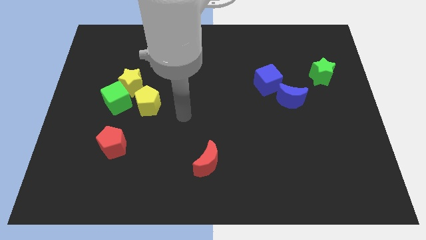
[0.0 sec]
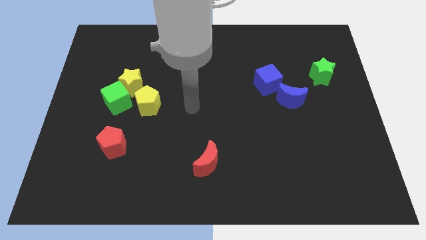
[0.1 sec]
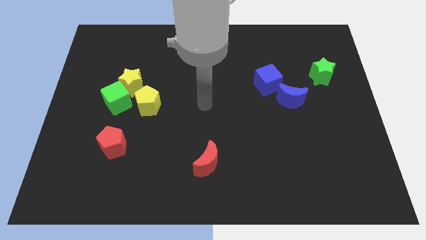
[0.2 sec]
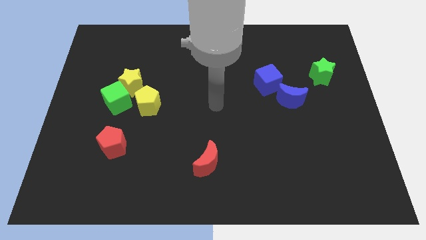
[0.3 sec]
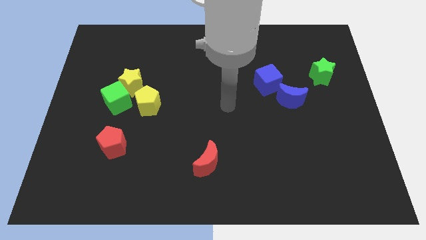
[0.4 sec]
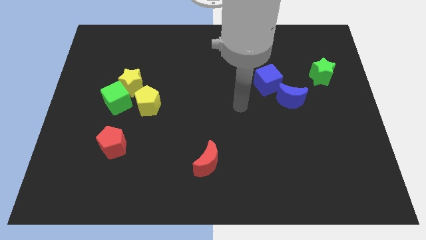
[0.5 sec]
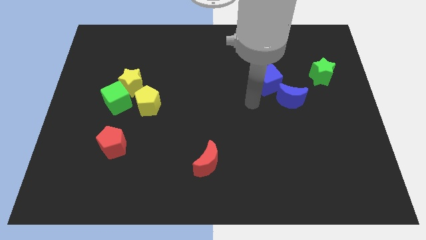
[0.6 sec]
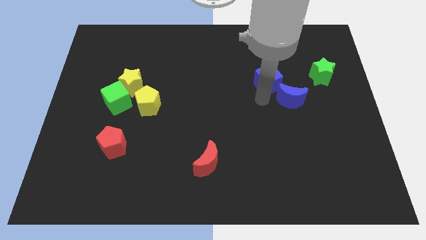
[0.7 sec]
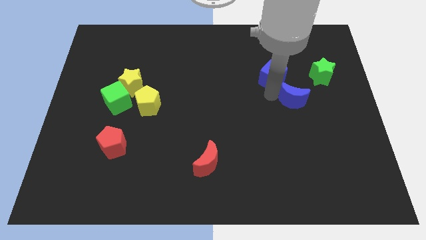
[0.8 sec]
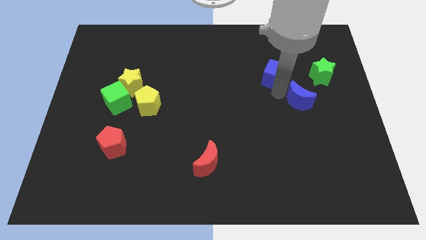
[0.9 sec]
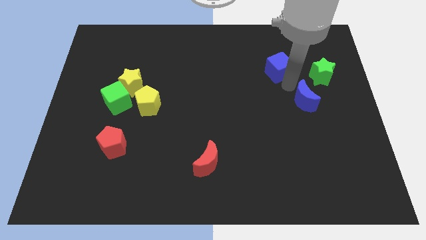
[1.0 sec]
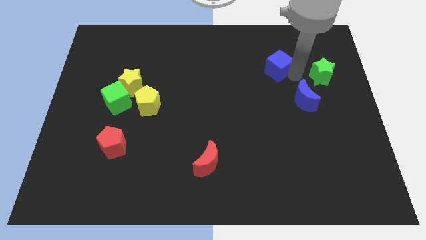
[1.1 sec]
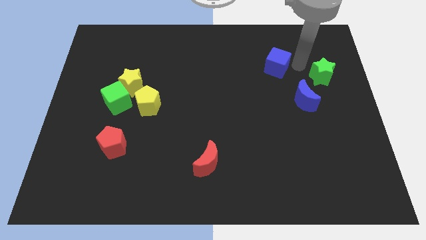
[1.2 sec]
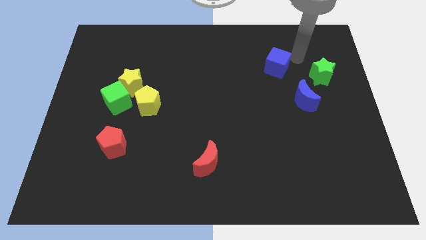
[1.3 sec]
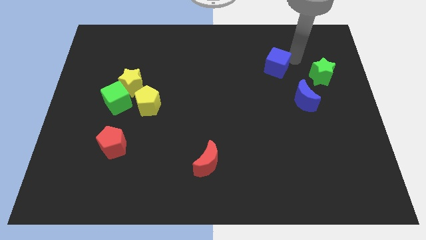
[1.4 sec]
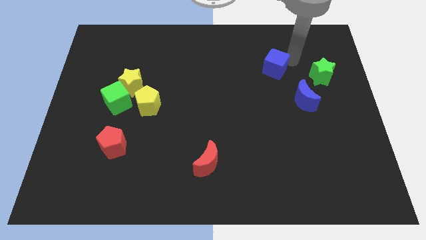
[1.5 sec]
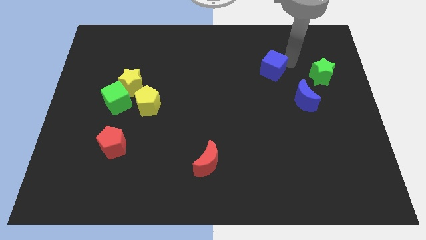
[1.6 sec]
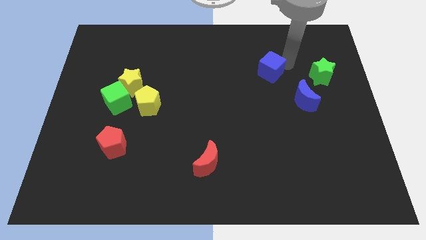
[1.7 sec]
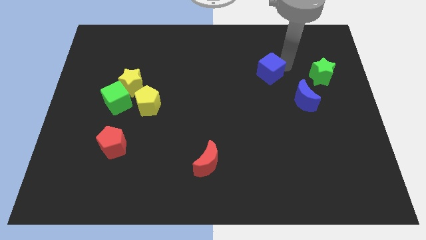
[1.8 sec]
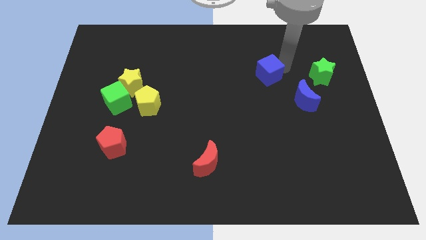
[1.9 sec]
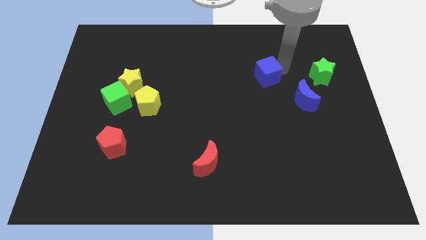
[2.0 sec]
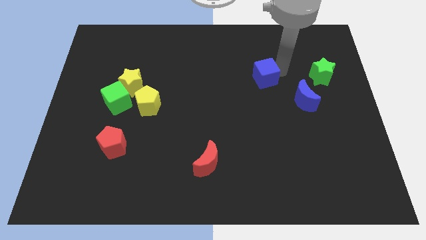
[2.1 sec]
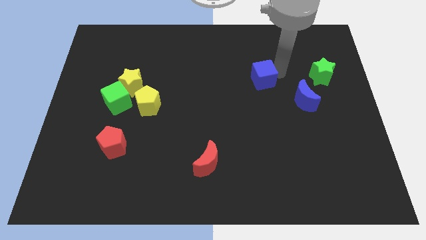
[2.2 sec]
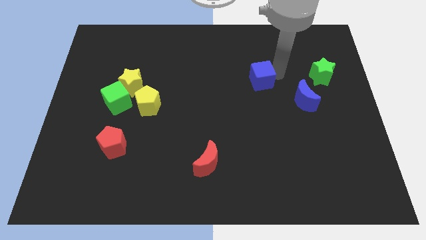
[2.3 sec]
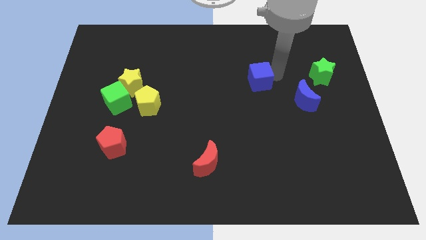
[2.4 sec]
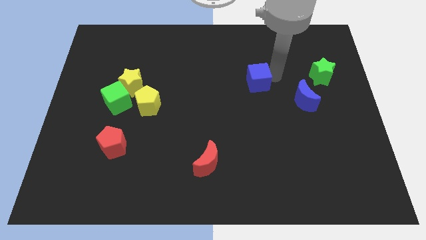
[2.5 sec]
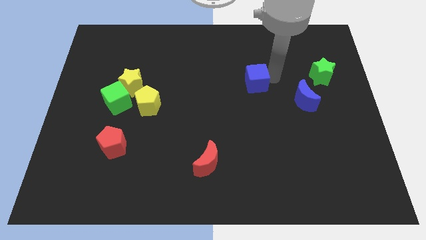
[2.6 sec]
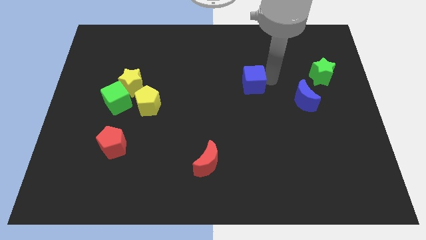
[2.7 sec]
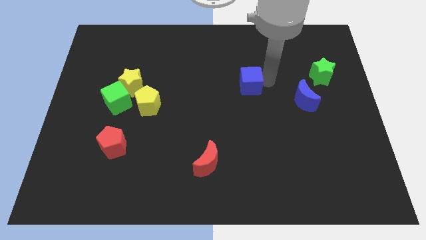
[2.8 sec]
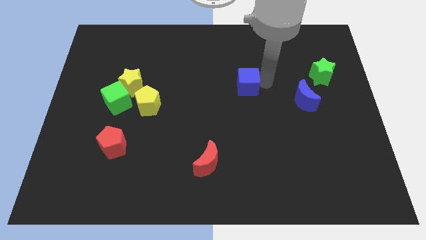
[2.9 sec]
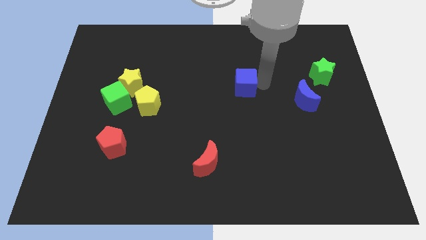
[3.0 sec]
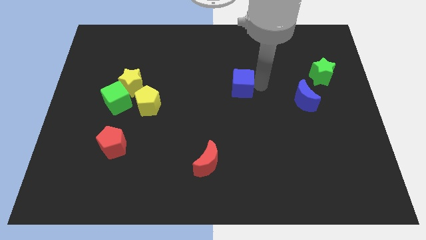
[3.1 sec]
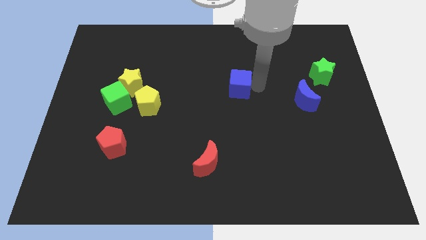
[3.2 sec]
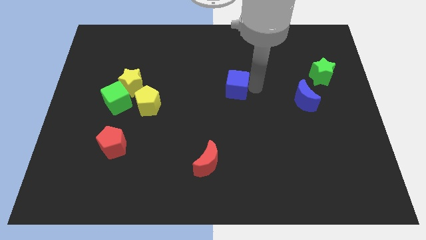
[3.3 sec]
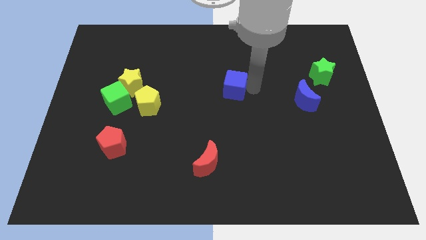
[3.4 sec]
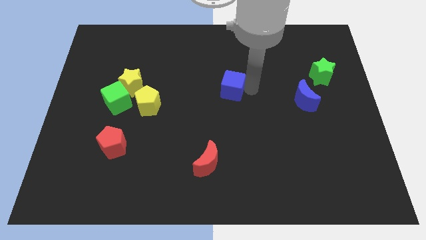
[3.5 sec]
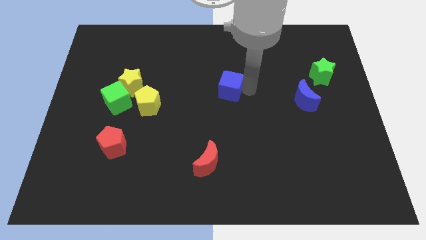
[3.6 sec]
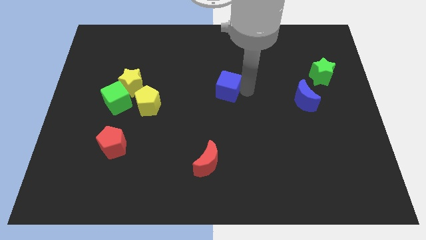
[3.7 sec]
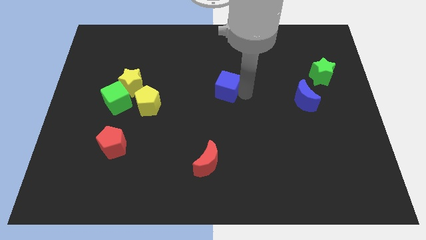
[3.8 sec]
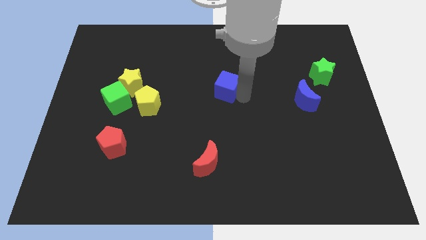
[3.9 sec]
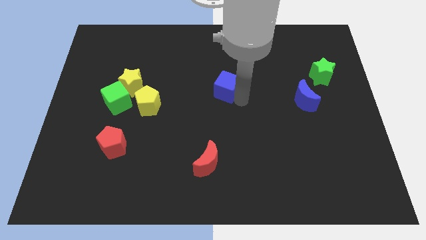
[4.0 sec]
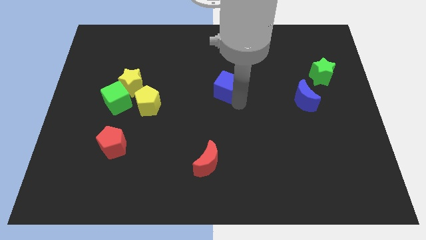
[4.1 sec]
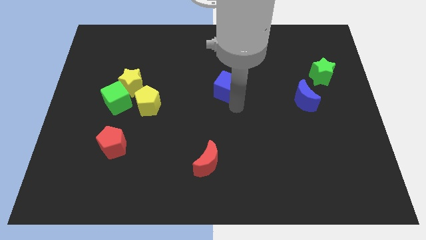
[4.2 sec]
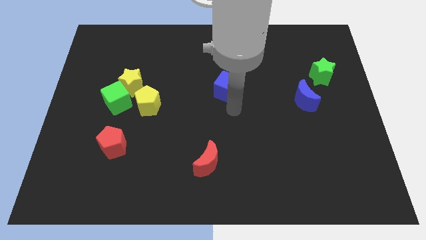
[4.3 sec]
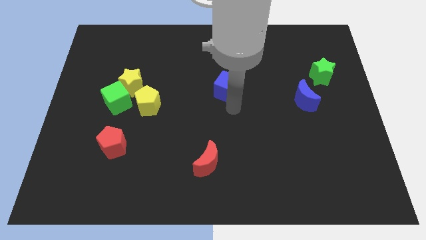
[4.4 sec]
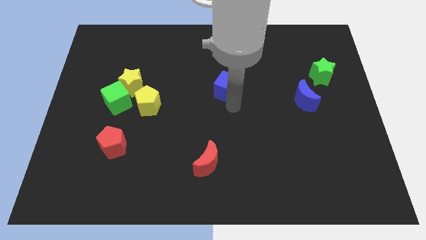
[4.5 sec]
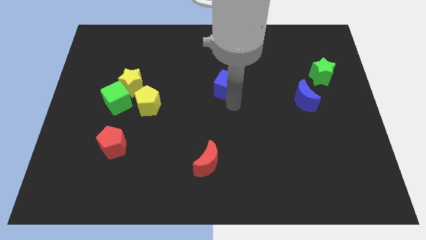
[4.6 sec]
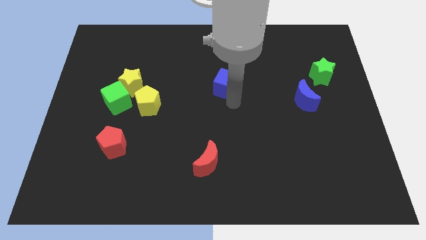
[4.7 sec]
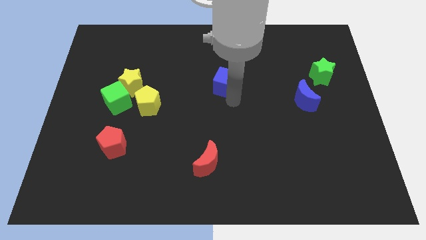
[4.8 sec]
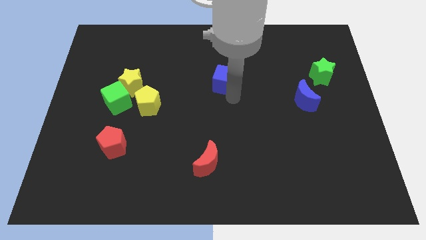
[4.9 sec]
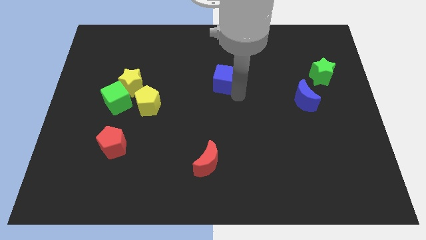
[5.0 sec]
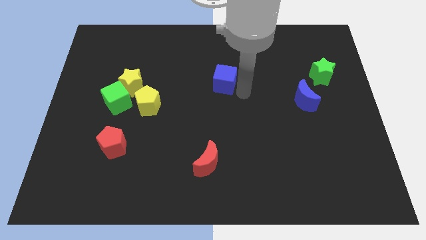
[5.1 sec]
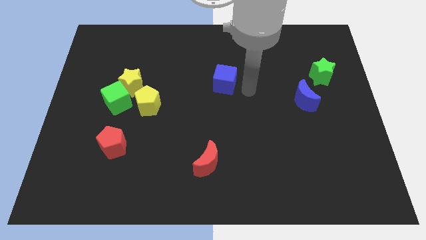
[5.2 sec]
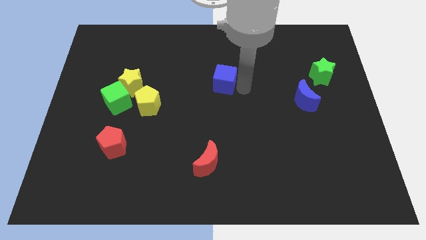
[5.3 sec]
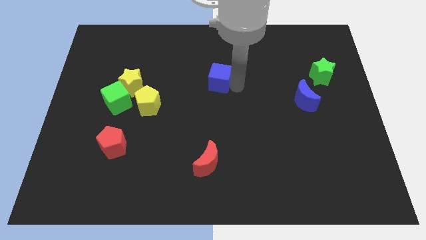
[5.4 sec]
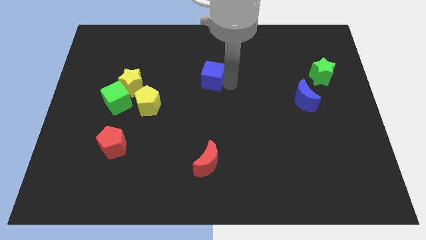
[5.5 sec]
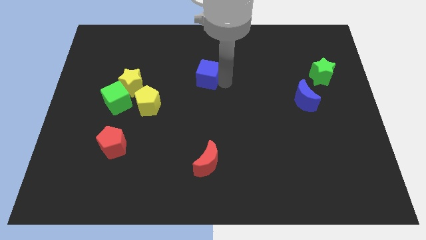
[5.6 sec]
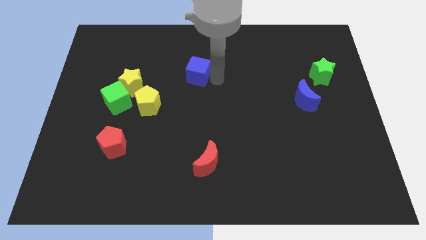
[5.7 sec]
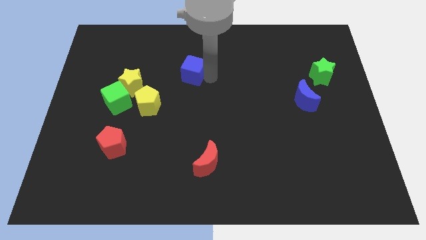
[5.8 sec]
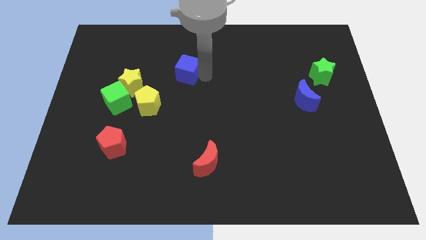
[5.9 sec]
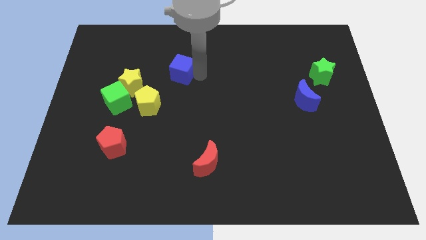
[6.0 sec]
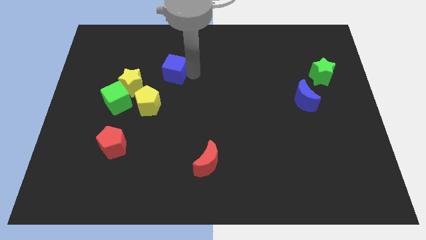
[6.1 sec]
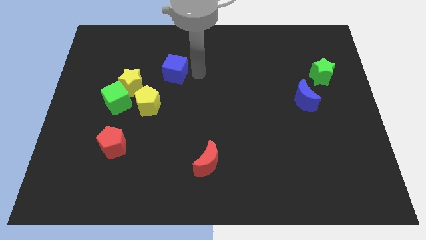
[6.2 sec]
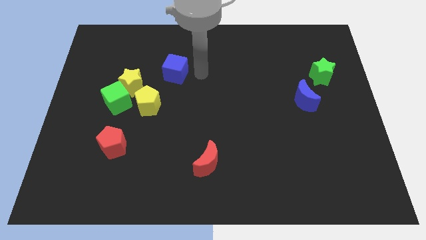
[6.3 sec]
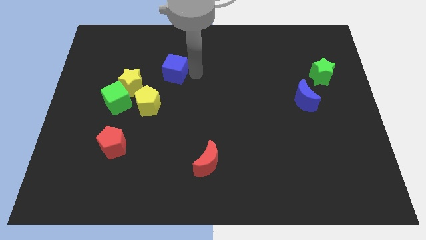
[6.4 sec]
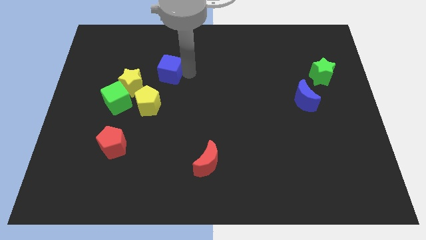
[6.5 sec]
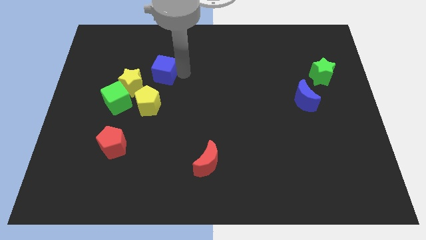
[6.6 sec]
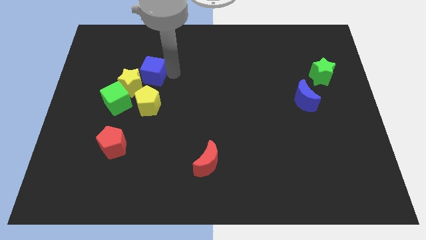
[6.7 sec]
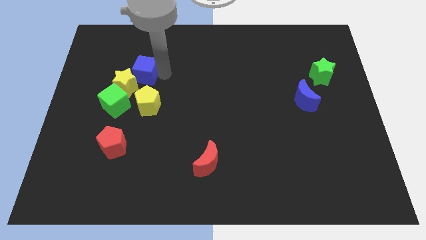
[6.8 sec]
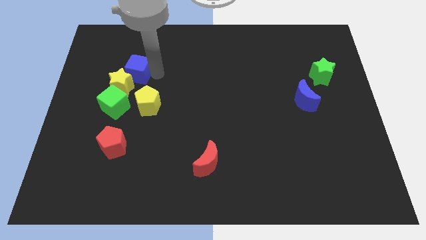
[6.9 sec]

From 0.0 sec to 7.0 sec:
move the blue cube to the top of the green cube

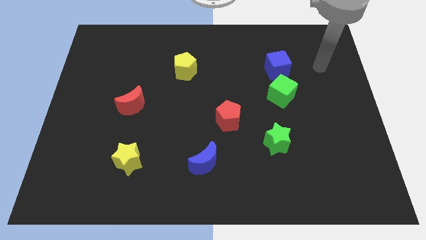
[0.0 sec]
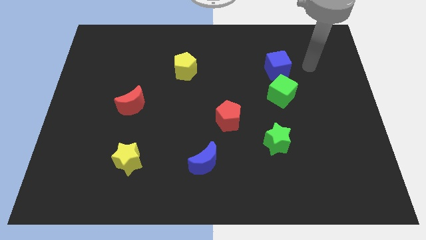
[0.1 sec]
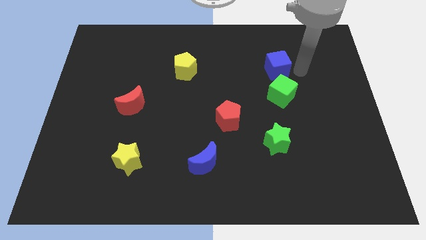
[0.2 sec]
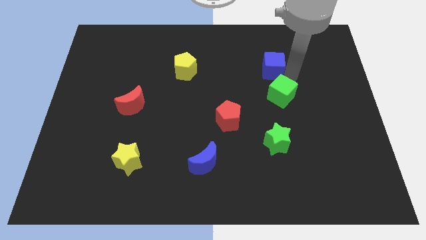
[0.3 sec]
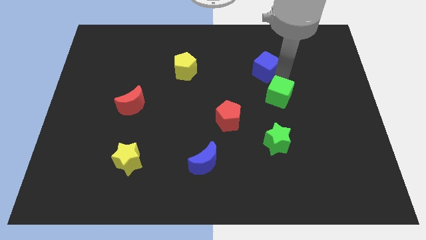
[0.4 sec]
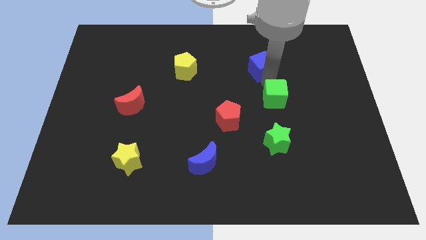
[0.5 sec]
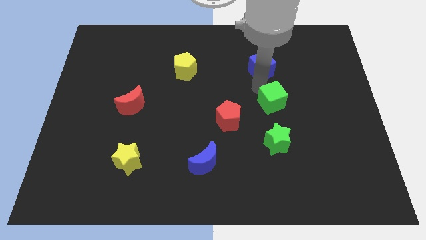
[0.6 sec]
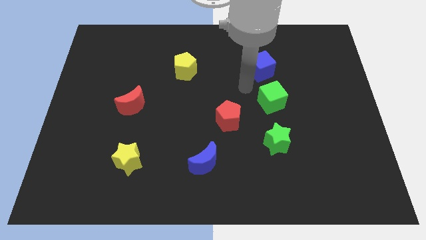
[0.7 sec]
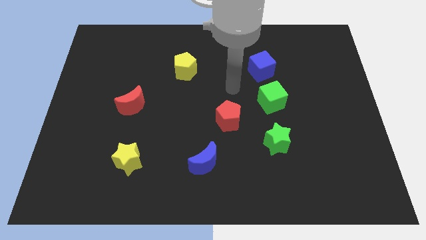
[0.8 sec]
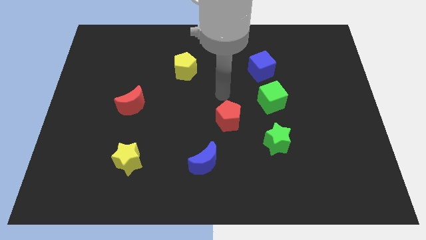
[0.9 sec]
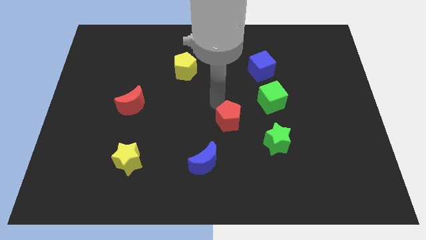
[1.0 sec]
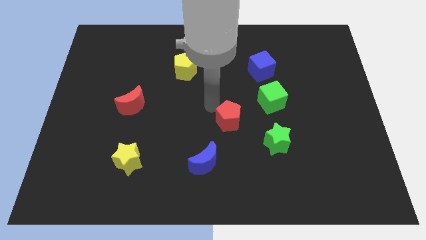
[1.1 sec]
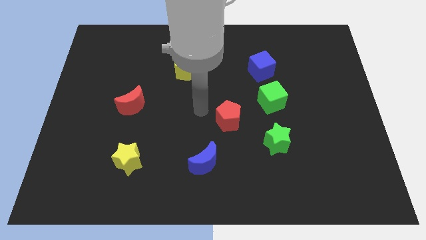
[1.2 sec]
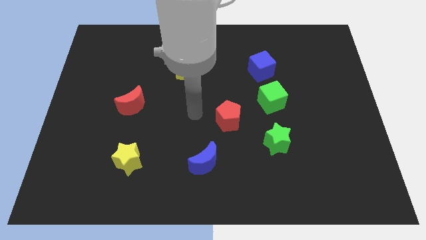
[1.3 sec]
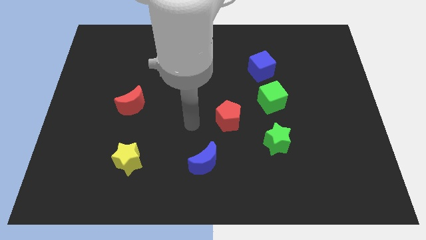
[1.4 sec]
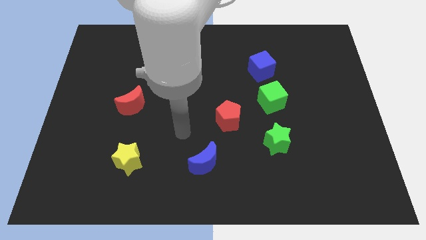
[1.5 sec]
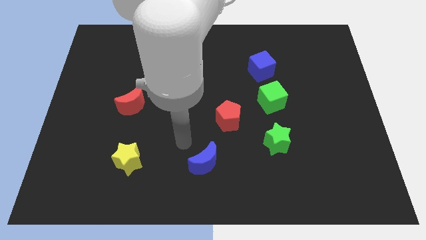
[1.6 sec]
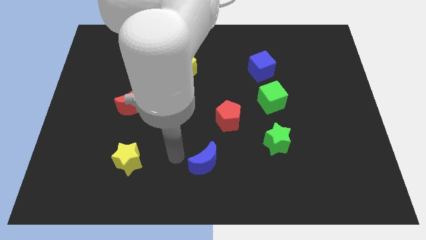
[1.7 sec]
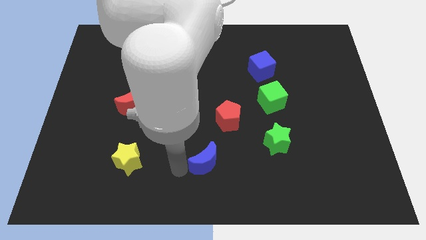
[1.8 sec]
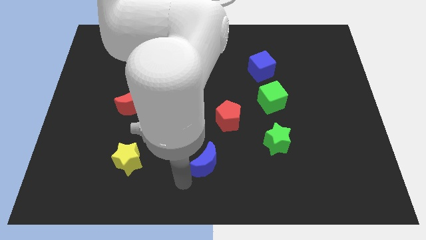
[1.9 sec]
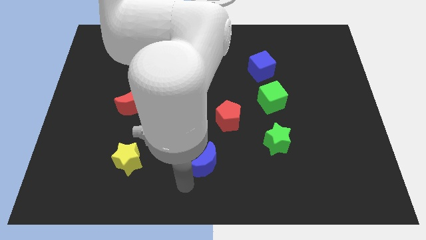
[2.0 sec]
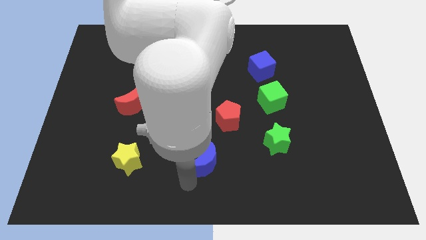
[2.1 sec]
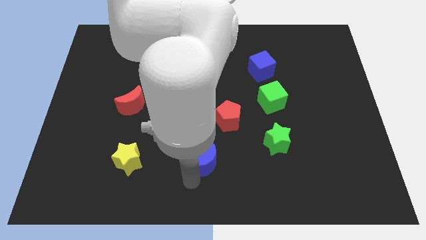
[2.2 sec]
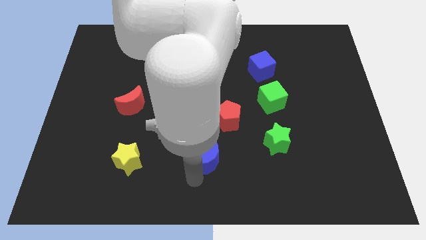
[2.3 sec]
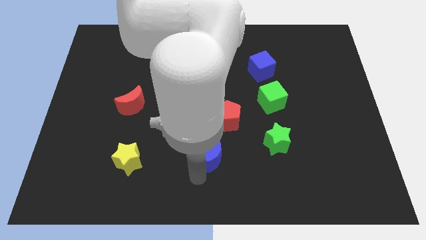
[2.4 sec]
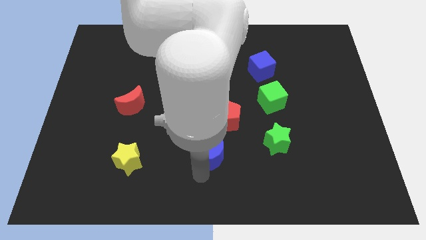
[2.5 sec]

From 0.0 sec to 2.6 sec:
push the blue moon left of the green star
